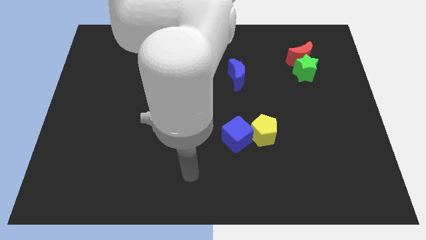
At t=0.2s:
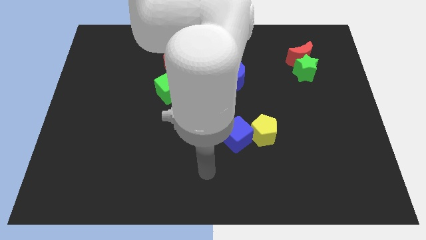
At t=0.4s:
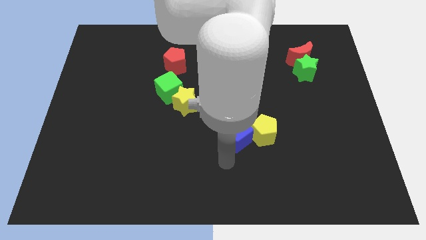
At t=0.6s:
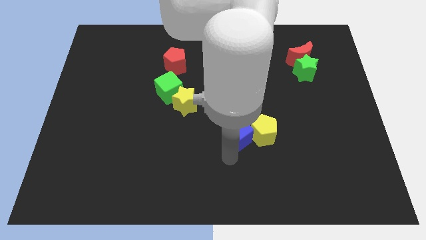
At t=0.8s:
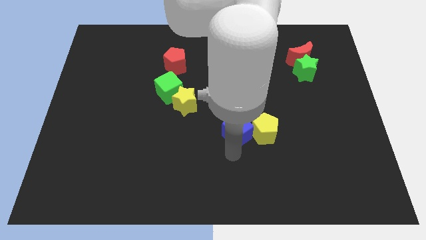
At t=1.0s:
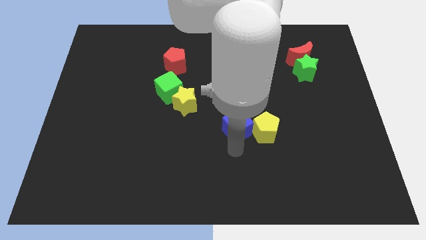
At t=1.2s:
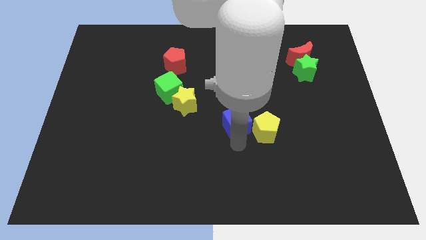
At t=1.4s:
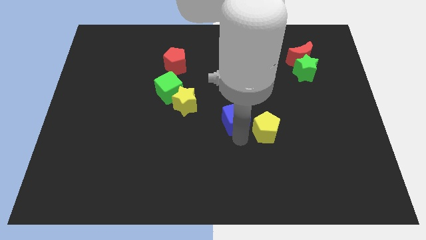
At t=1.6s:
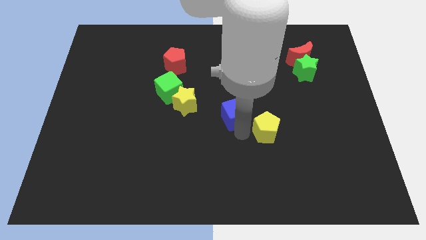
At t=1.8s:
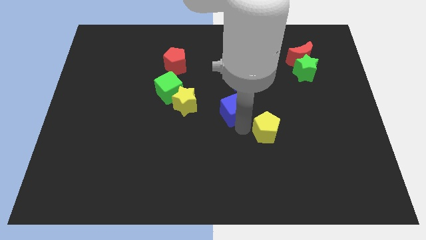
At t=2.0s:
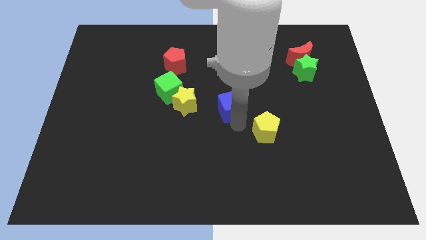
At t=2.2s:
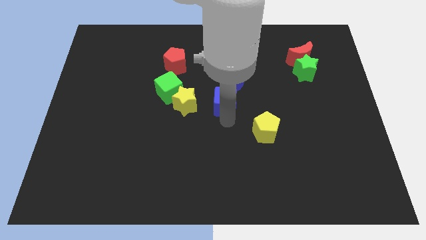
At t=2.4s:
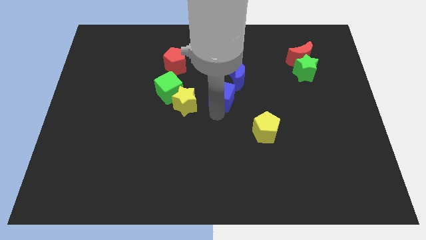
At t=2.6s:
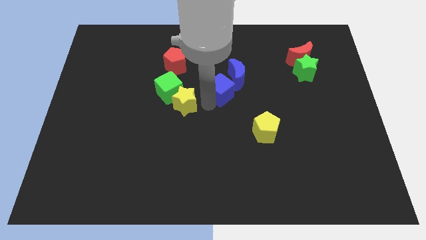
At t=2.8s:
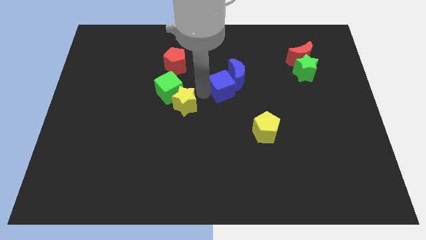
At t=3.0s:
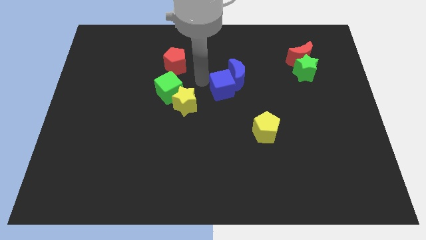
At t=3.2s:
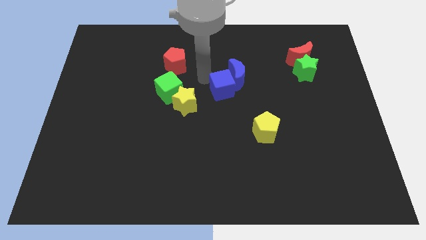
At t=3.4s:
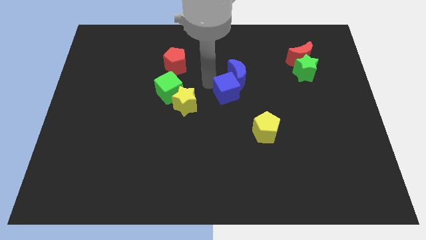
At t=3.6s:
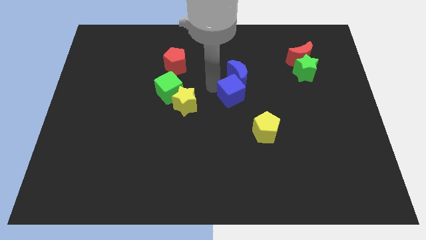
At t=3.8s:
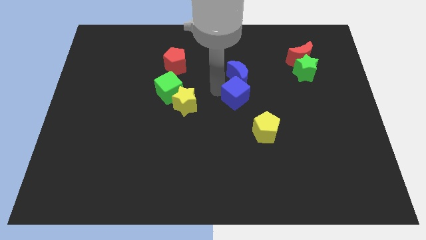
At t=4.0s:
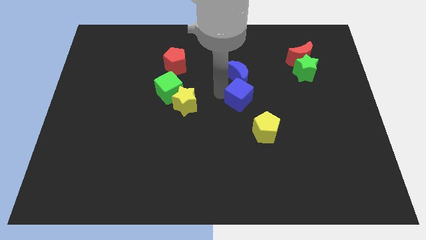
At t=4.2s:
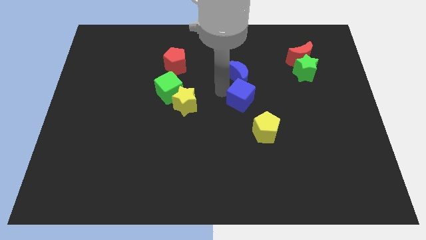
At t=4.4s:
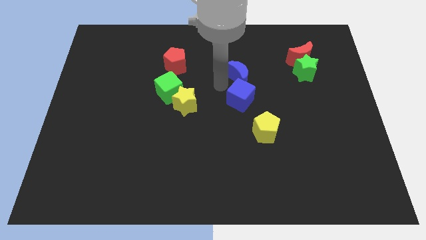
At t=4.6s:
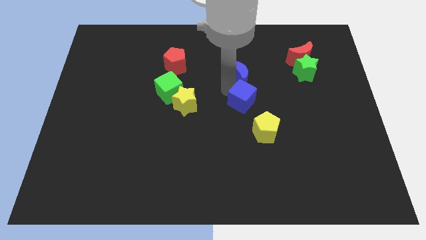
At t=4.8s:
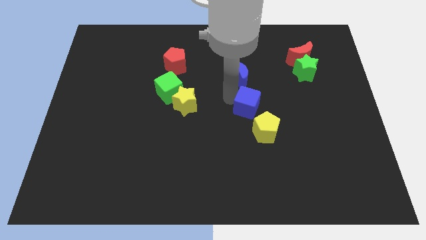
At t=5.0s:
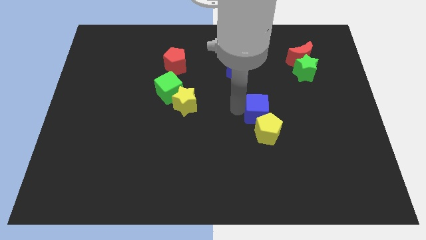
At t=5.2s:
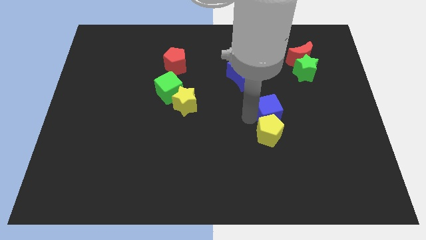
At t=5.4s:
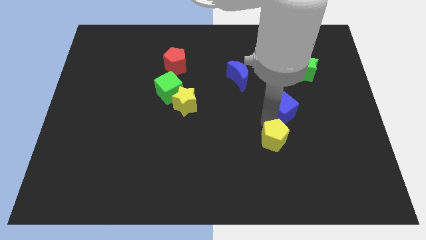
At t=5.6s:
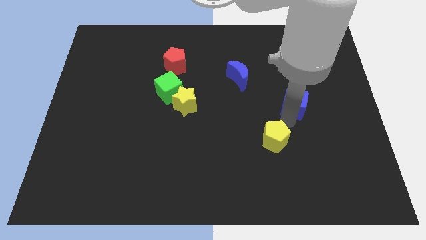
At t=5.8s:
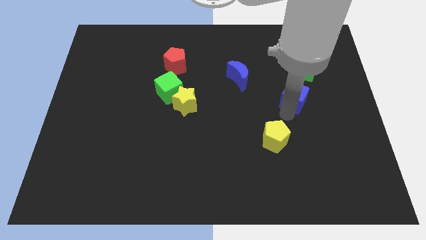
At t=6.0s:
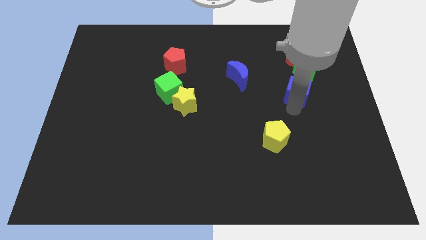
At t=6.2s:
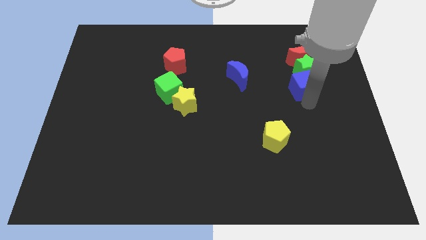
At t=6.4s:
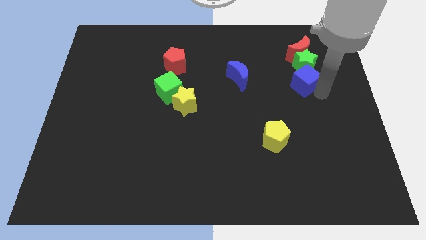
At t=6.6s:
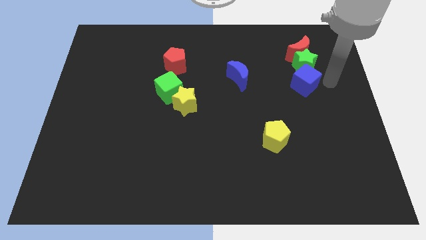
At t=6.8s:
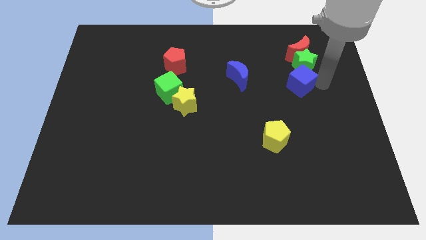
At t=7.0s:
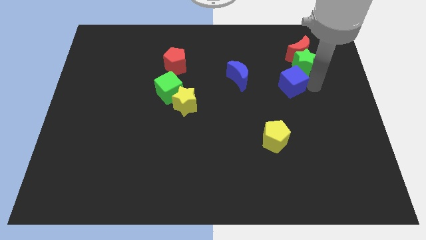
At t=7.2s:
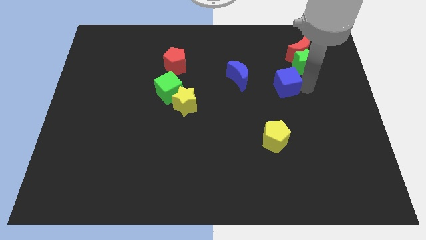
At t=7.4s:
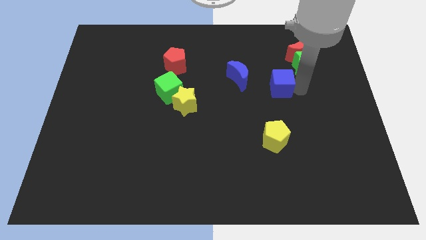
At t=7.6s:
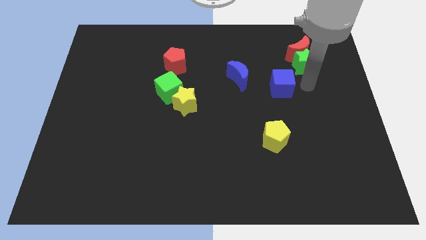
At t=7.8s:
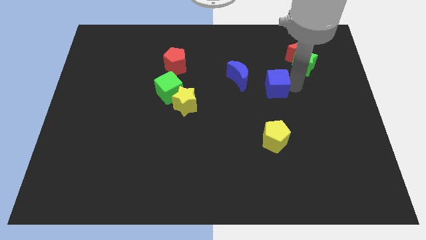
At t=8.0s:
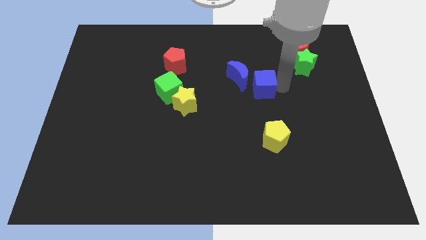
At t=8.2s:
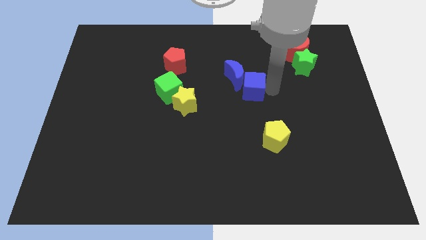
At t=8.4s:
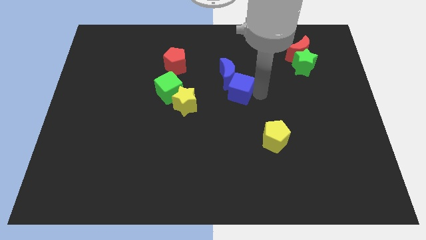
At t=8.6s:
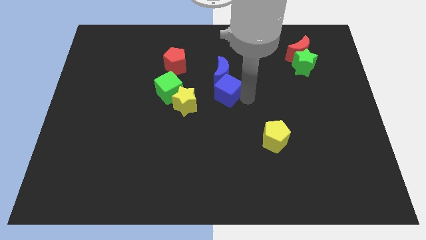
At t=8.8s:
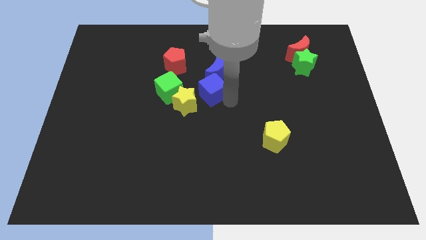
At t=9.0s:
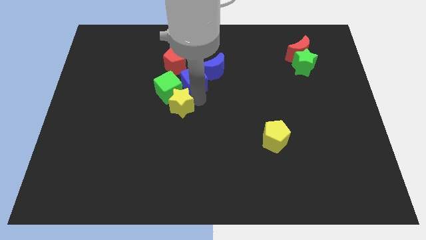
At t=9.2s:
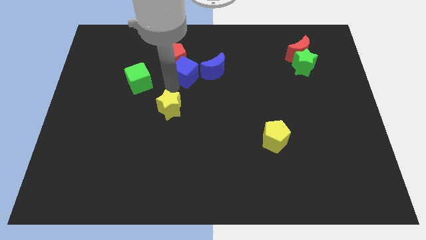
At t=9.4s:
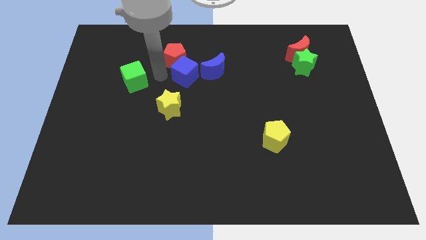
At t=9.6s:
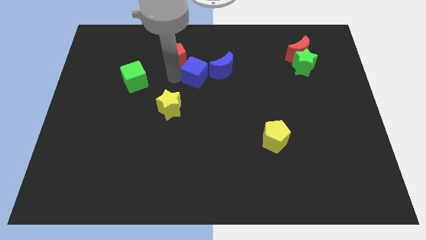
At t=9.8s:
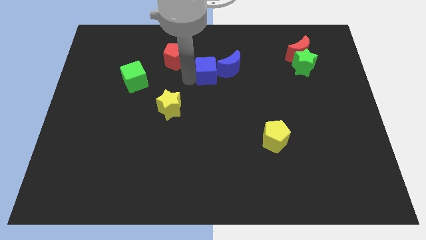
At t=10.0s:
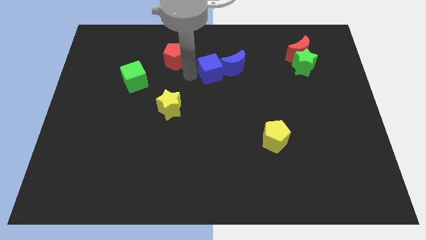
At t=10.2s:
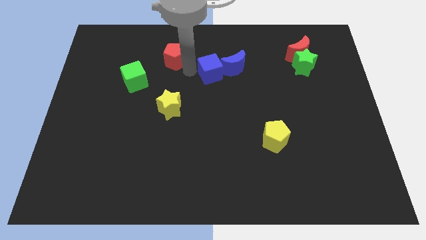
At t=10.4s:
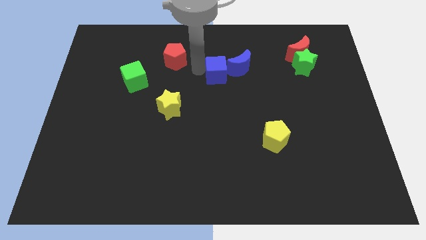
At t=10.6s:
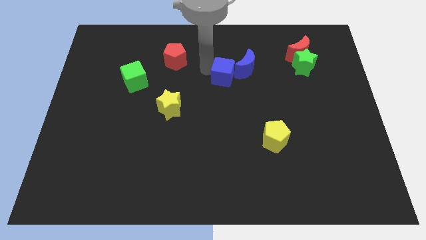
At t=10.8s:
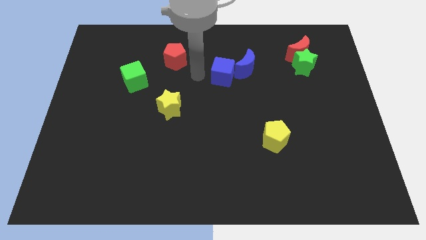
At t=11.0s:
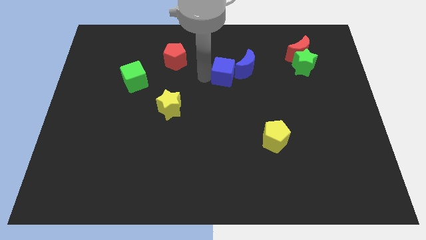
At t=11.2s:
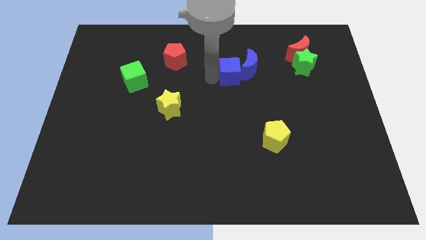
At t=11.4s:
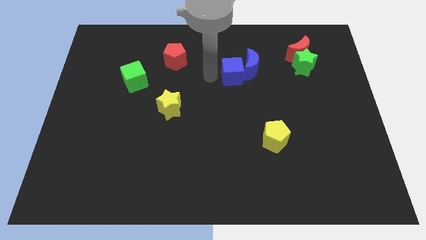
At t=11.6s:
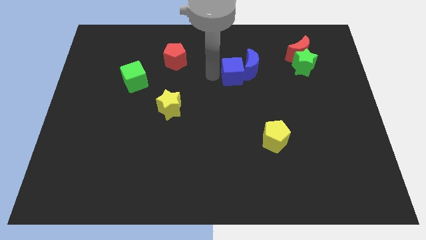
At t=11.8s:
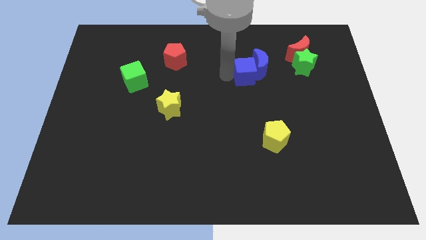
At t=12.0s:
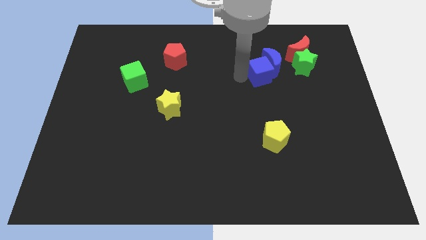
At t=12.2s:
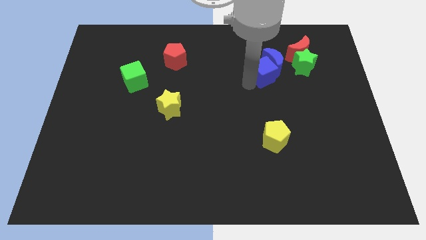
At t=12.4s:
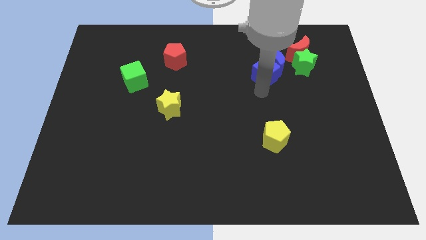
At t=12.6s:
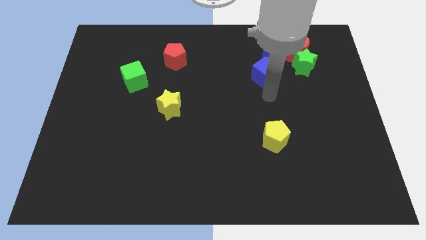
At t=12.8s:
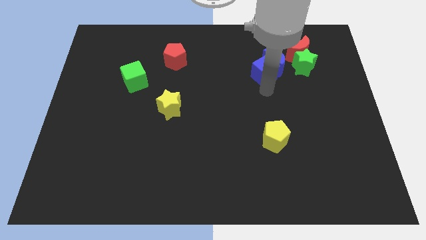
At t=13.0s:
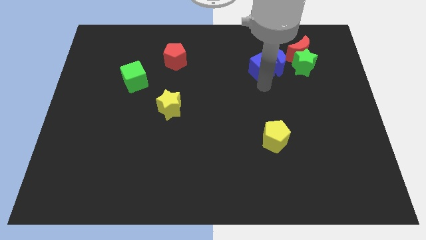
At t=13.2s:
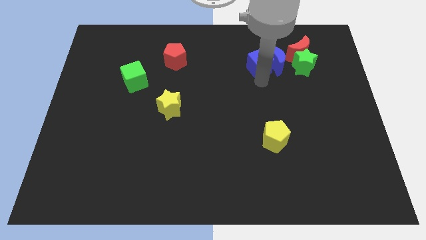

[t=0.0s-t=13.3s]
put the blue cube just left of the red moon
